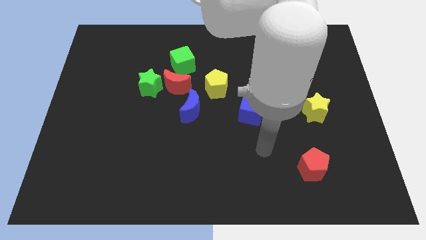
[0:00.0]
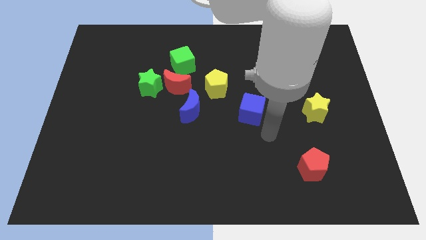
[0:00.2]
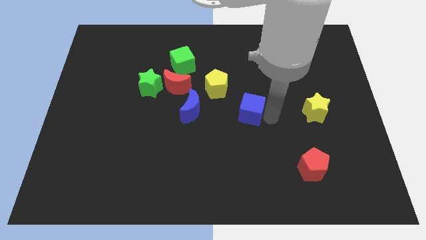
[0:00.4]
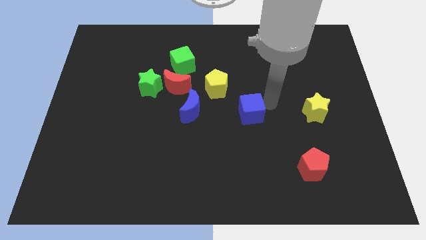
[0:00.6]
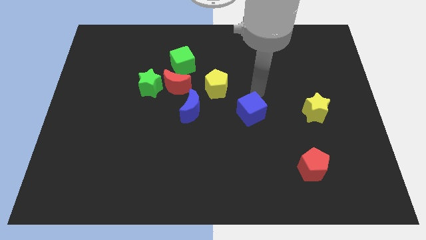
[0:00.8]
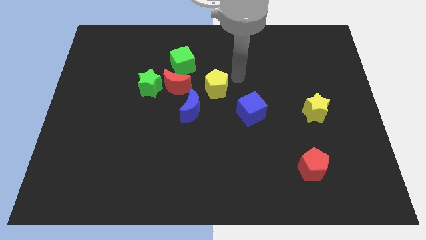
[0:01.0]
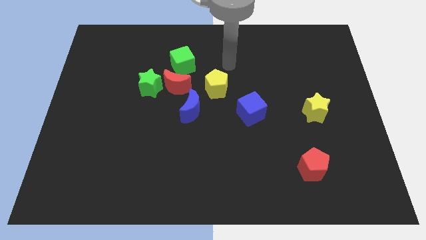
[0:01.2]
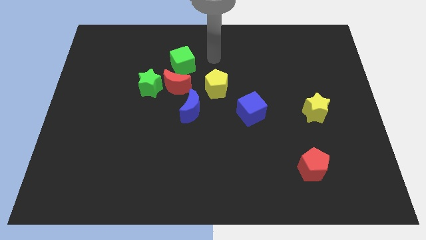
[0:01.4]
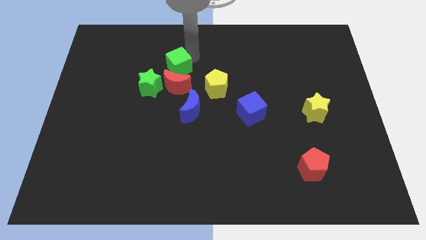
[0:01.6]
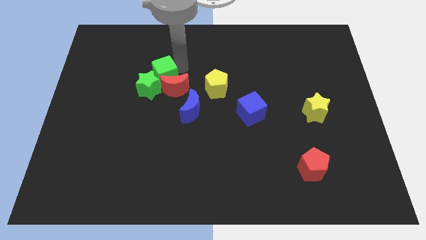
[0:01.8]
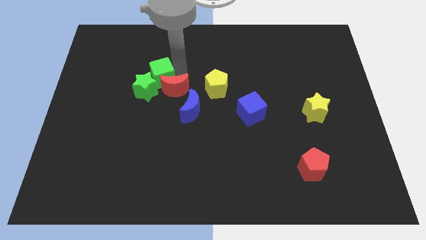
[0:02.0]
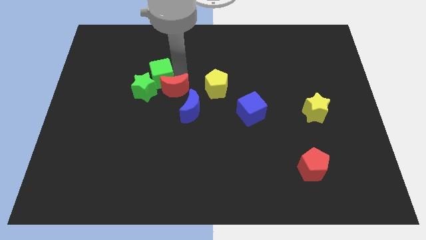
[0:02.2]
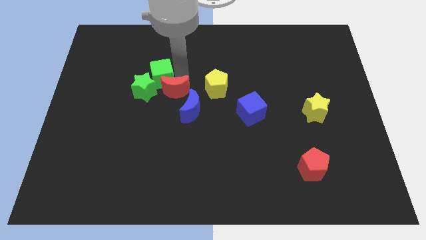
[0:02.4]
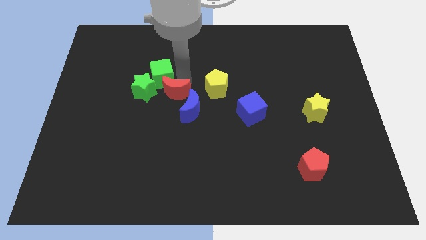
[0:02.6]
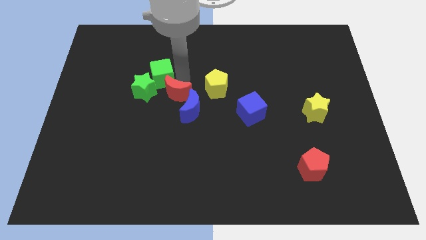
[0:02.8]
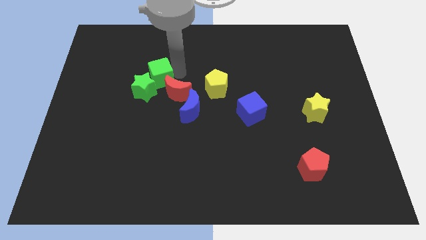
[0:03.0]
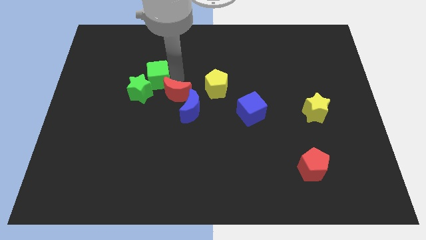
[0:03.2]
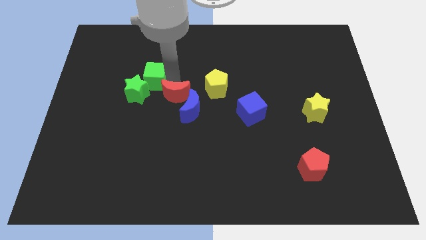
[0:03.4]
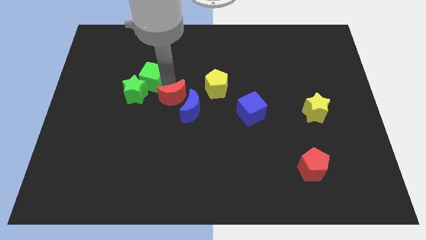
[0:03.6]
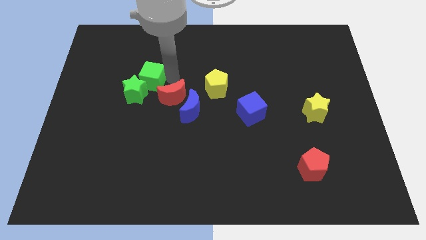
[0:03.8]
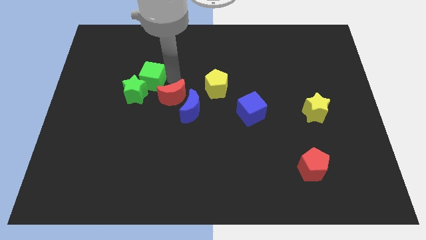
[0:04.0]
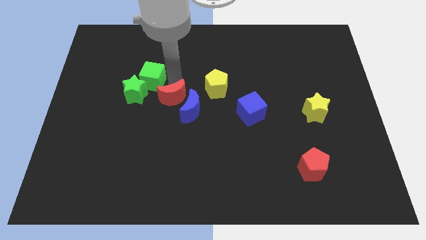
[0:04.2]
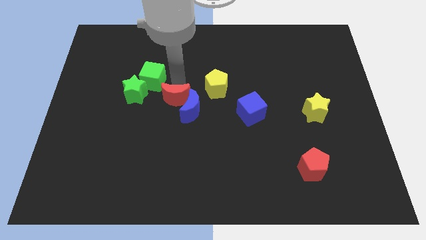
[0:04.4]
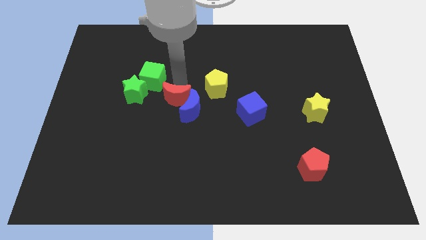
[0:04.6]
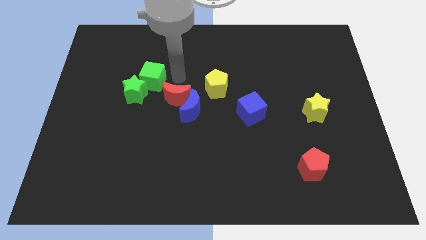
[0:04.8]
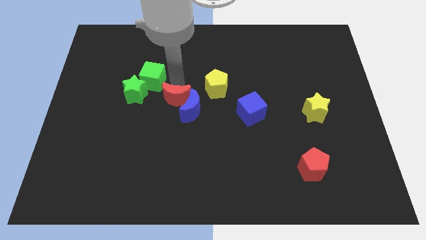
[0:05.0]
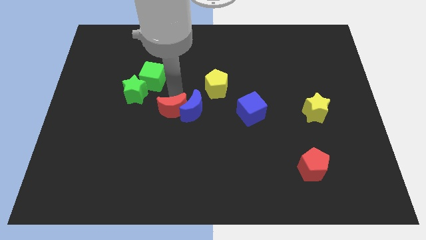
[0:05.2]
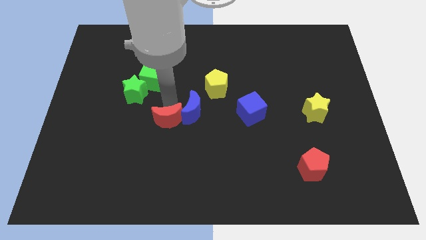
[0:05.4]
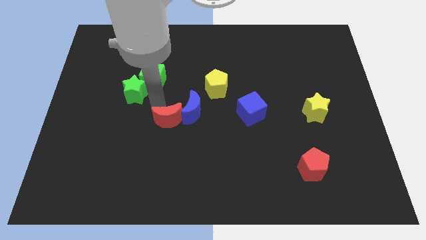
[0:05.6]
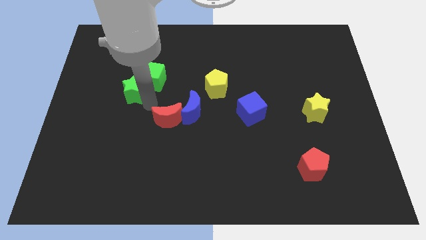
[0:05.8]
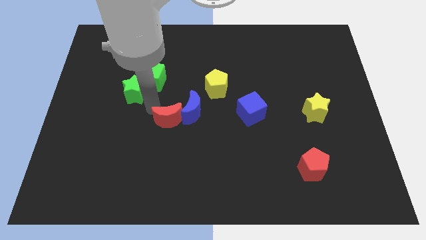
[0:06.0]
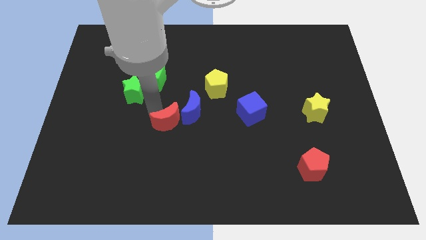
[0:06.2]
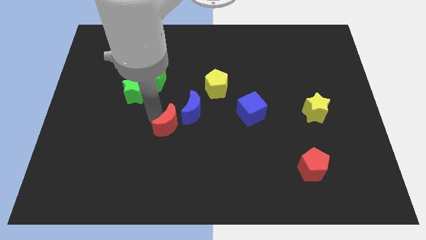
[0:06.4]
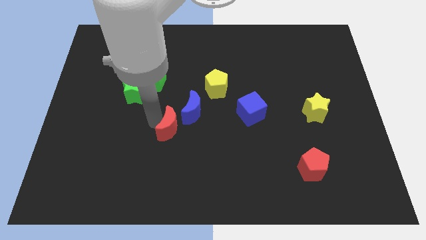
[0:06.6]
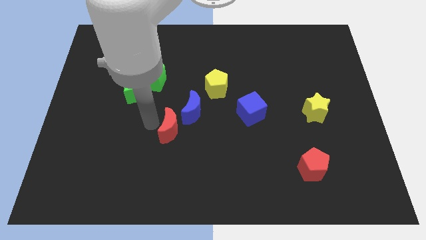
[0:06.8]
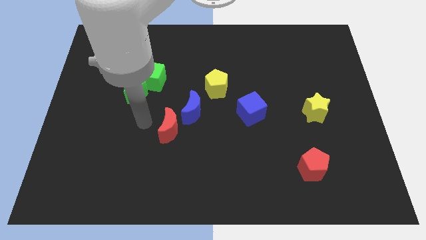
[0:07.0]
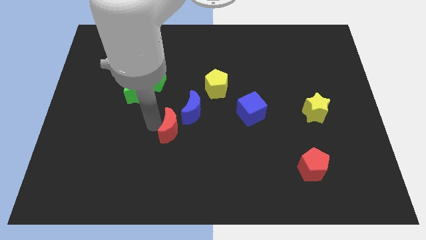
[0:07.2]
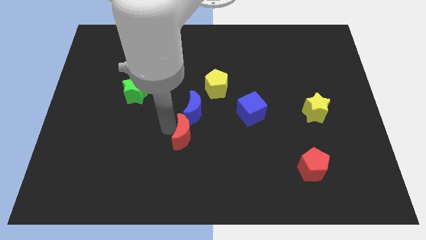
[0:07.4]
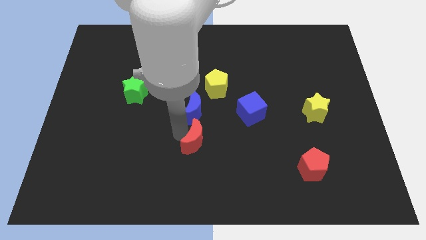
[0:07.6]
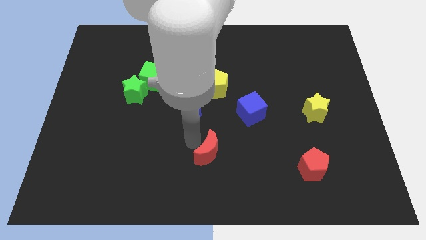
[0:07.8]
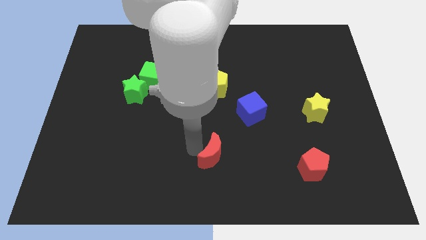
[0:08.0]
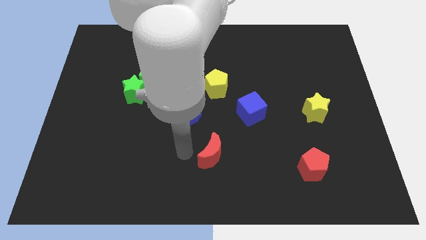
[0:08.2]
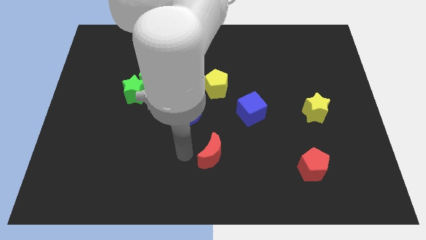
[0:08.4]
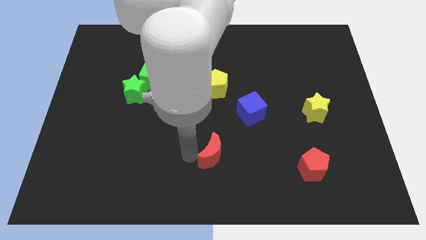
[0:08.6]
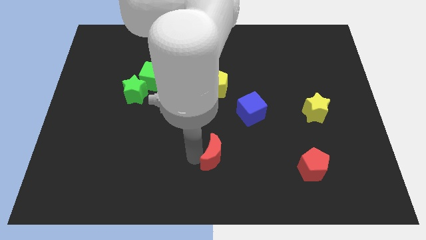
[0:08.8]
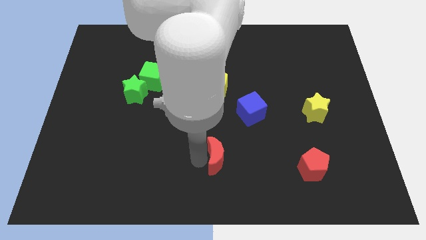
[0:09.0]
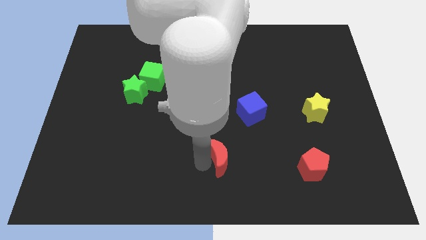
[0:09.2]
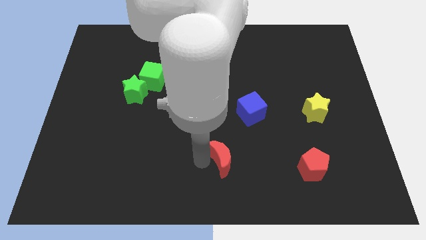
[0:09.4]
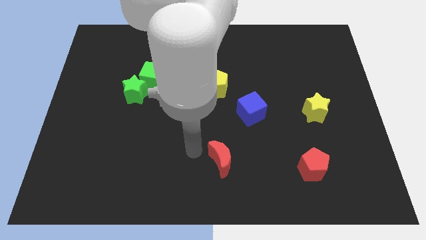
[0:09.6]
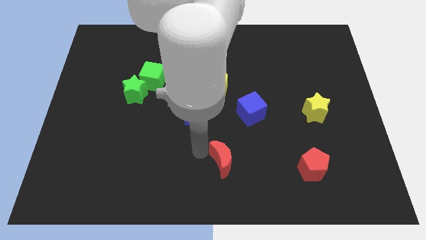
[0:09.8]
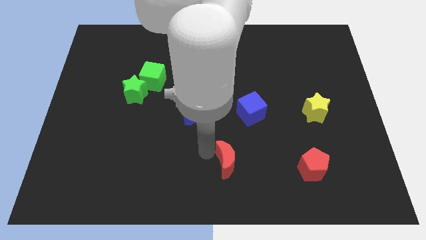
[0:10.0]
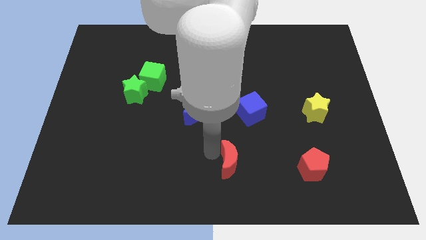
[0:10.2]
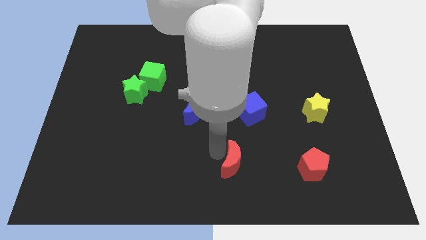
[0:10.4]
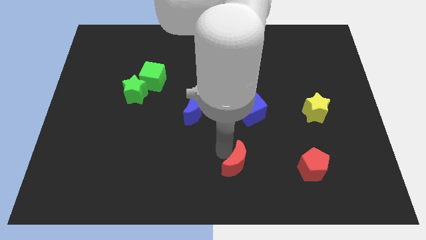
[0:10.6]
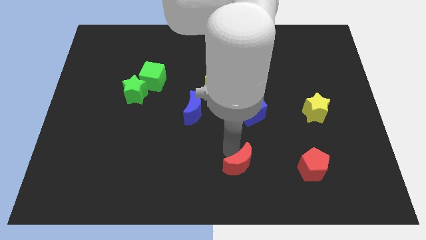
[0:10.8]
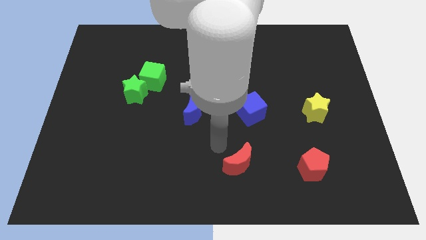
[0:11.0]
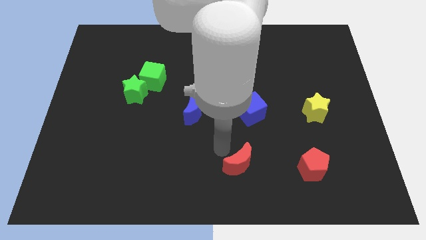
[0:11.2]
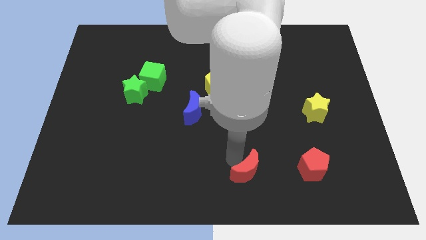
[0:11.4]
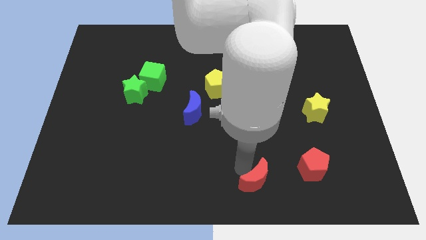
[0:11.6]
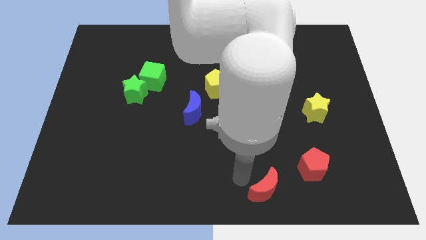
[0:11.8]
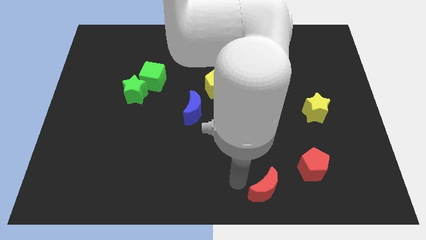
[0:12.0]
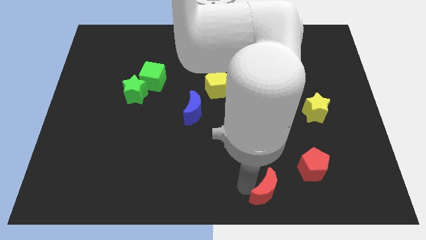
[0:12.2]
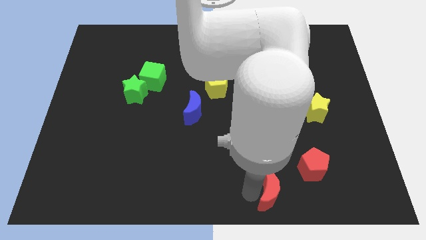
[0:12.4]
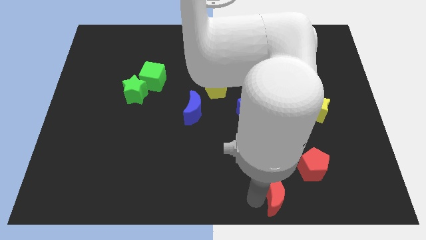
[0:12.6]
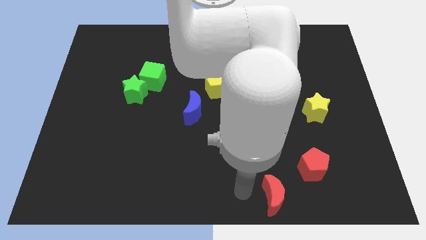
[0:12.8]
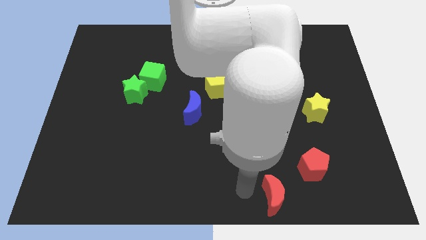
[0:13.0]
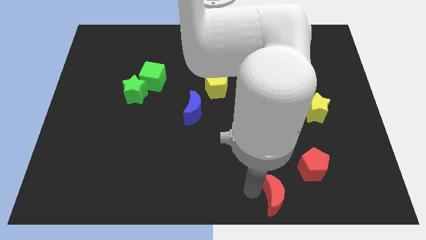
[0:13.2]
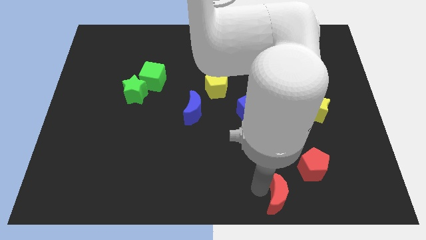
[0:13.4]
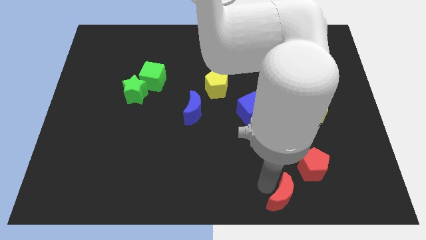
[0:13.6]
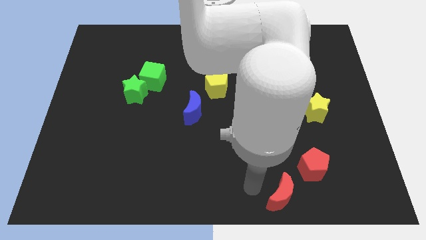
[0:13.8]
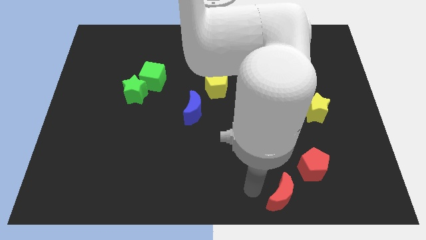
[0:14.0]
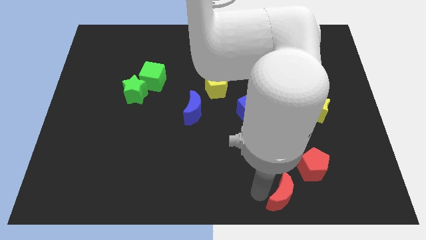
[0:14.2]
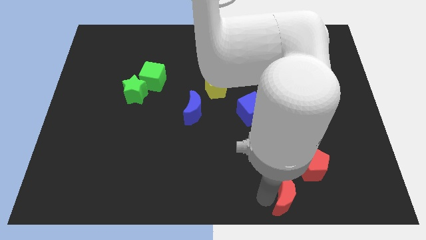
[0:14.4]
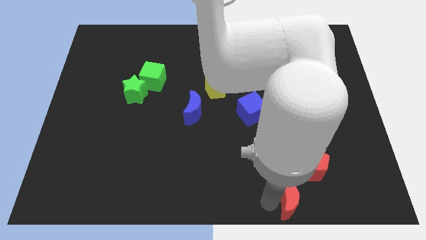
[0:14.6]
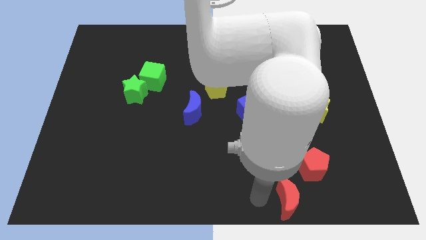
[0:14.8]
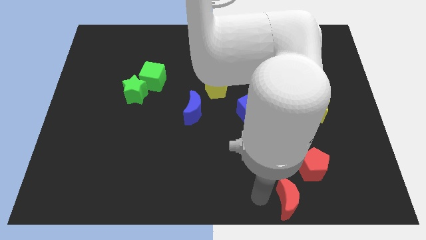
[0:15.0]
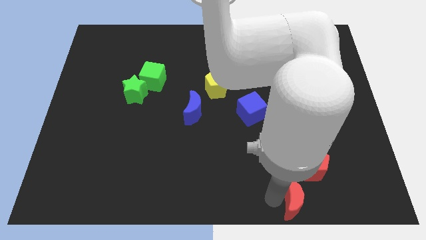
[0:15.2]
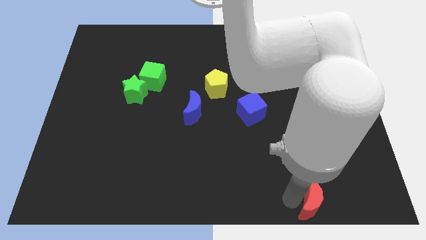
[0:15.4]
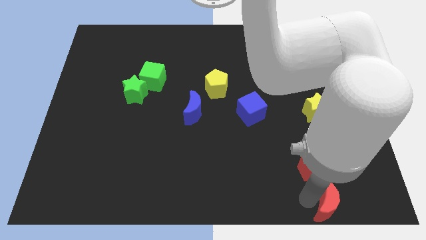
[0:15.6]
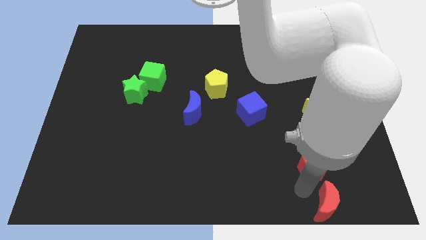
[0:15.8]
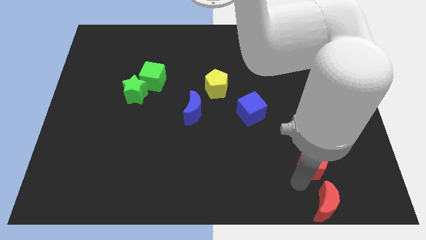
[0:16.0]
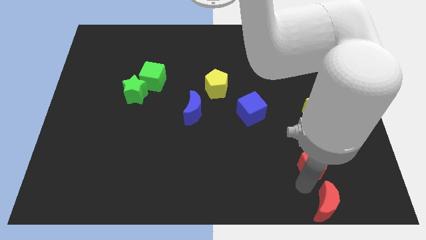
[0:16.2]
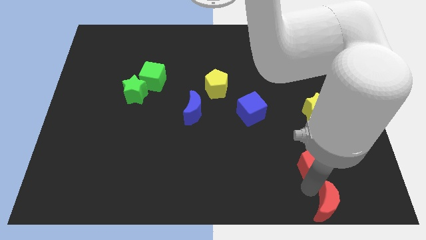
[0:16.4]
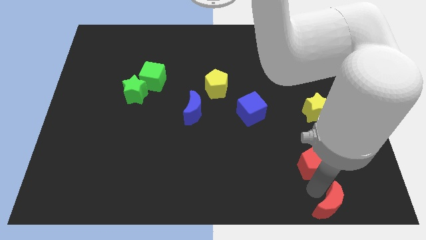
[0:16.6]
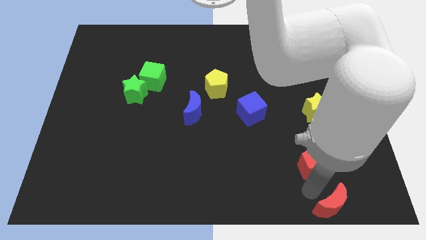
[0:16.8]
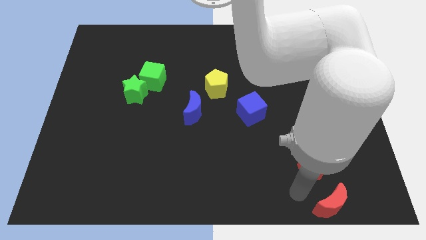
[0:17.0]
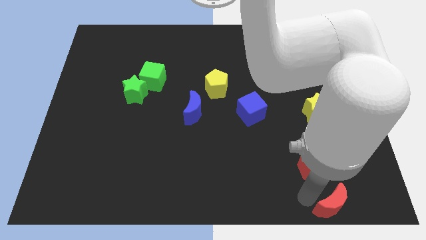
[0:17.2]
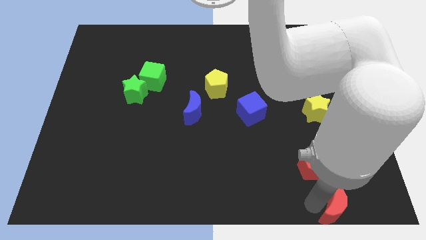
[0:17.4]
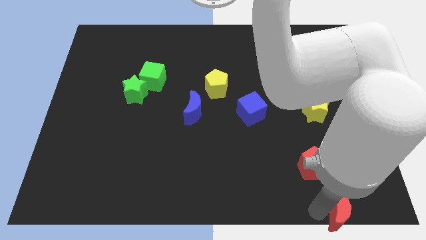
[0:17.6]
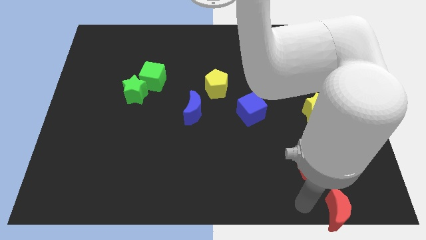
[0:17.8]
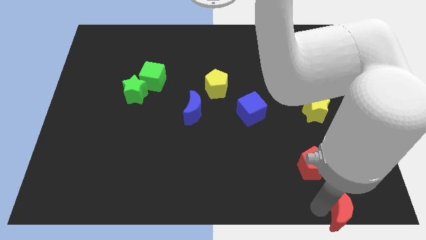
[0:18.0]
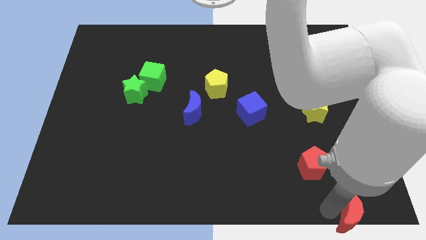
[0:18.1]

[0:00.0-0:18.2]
slide the red moon to the bottom right
